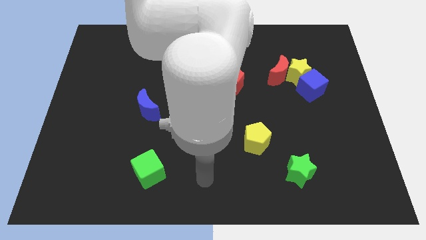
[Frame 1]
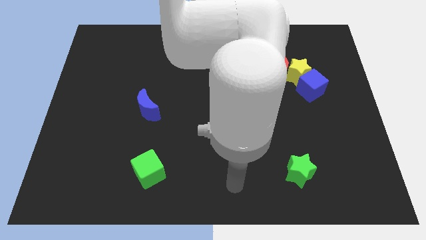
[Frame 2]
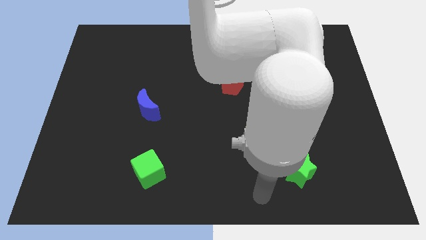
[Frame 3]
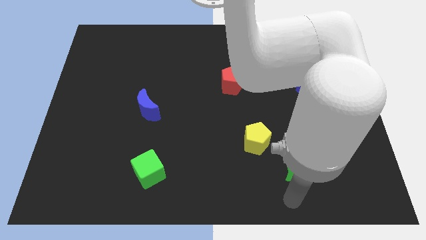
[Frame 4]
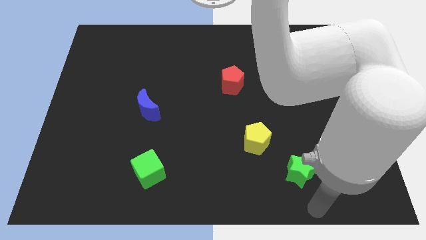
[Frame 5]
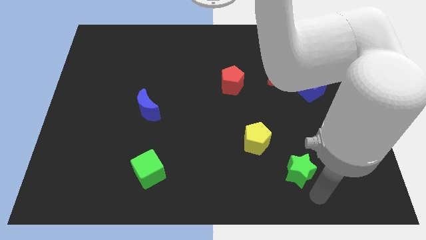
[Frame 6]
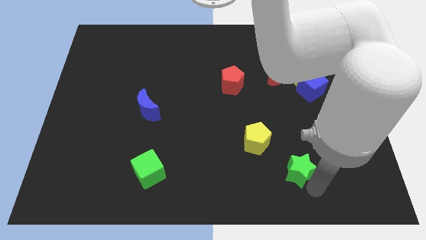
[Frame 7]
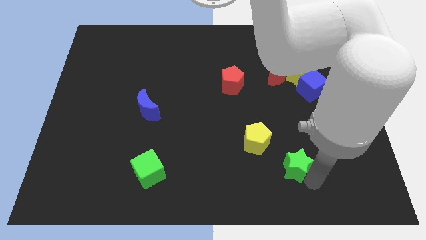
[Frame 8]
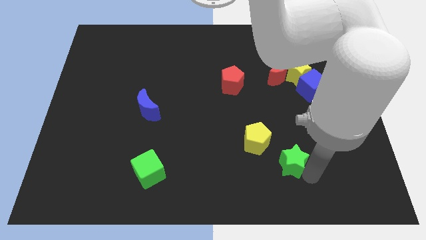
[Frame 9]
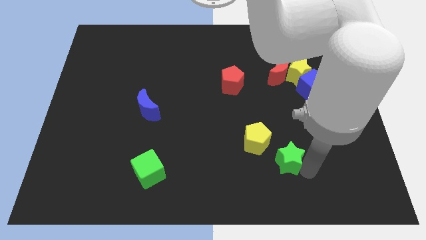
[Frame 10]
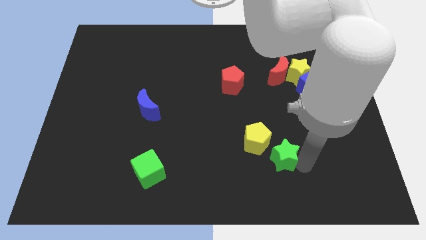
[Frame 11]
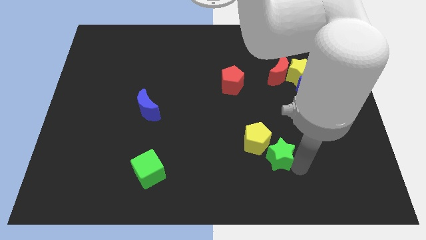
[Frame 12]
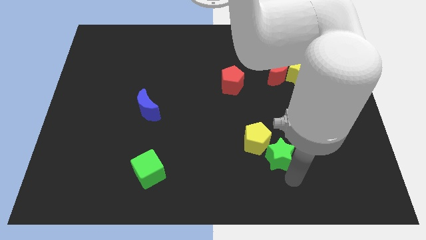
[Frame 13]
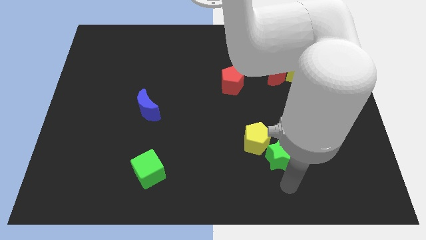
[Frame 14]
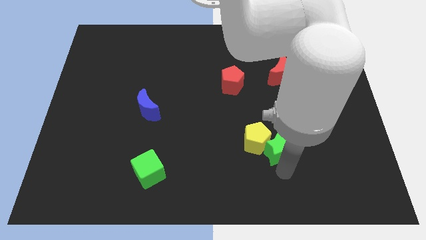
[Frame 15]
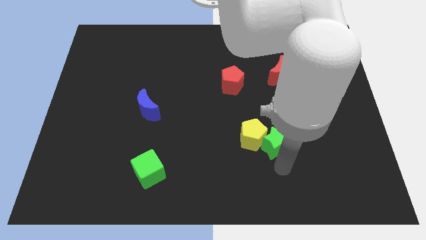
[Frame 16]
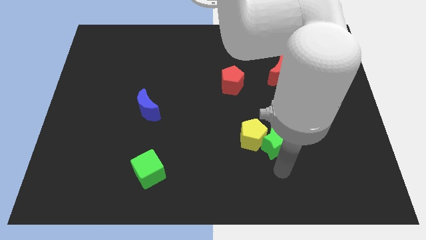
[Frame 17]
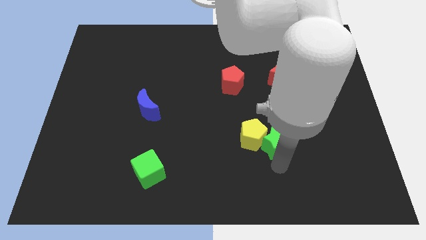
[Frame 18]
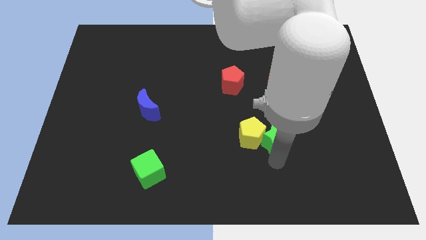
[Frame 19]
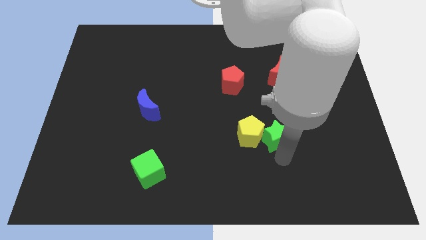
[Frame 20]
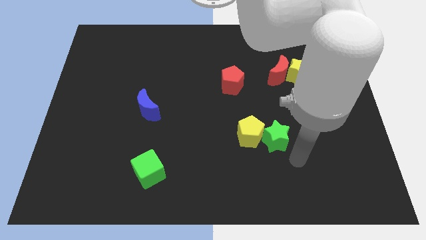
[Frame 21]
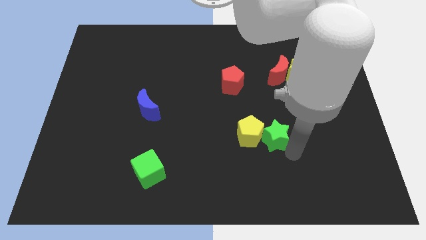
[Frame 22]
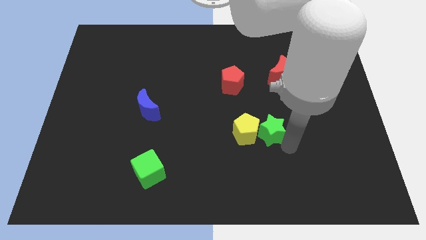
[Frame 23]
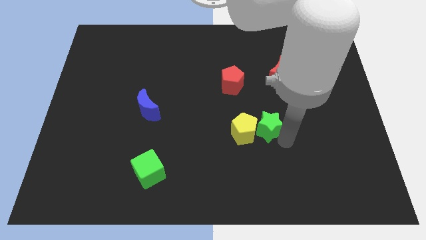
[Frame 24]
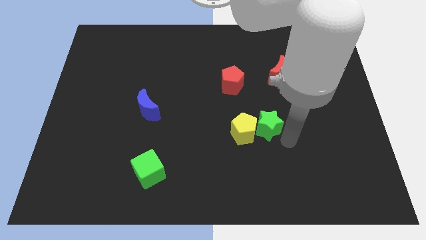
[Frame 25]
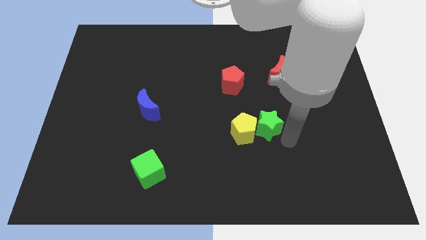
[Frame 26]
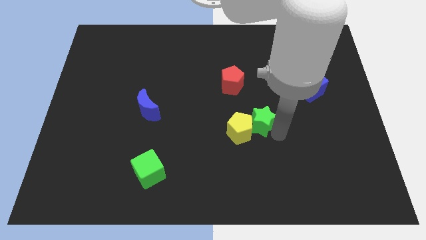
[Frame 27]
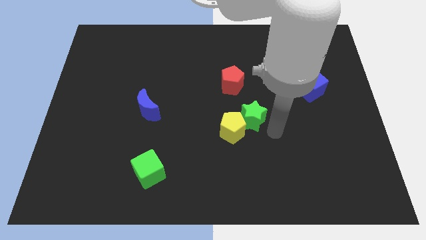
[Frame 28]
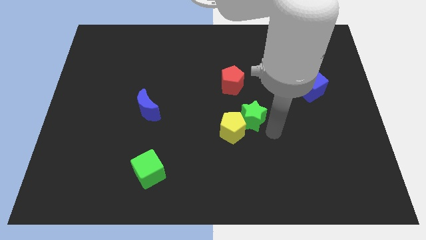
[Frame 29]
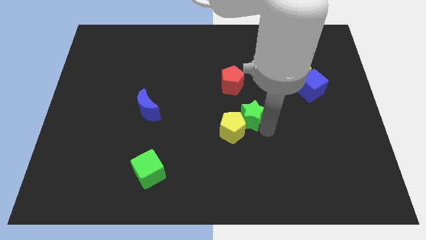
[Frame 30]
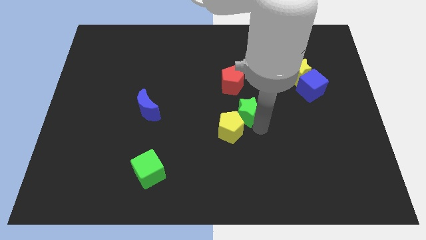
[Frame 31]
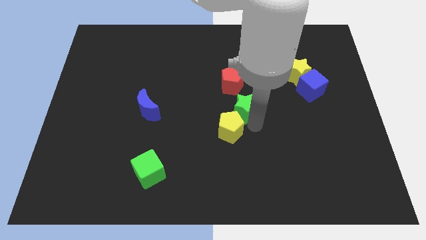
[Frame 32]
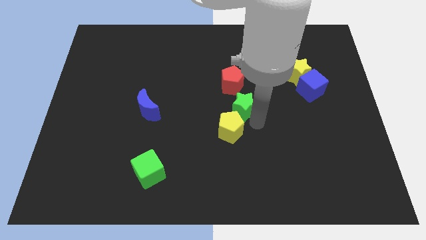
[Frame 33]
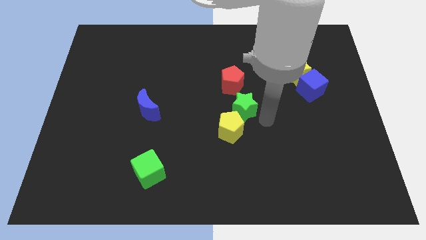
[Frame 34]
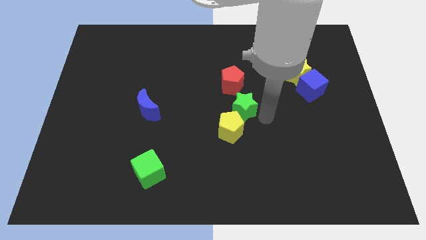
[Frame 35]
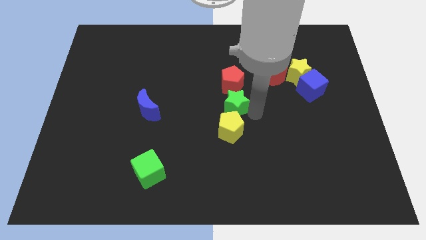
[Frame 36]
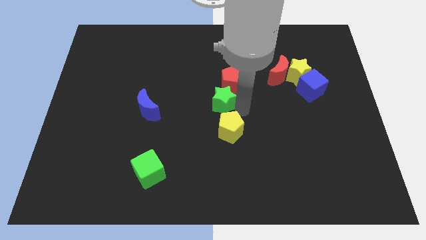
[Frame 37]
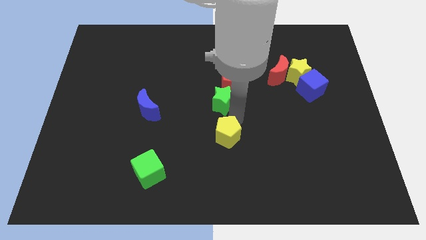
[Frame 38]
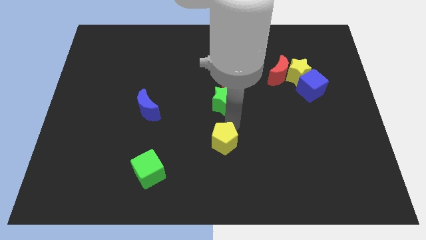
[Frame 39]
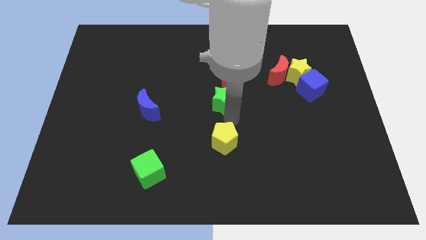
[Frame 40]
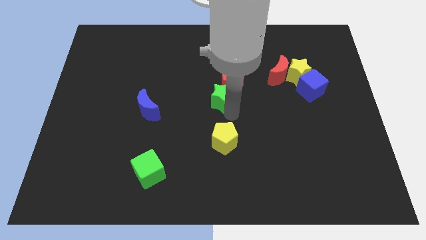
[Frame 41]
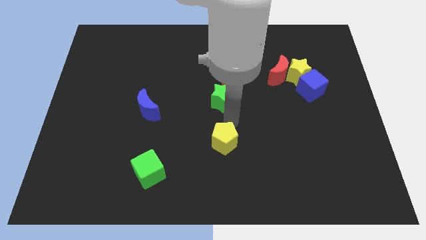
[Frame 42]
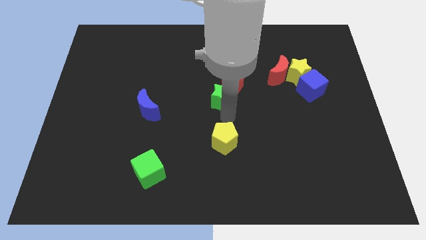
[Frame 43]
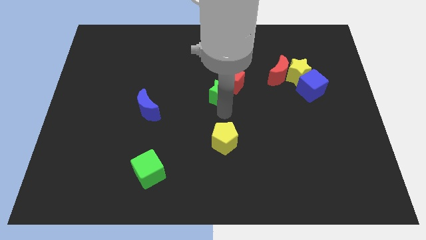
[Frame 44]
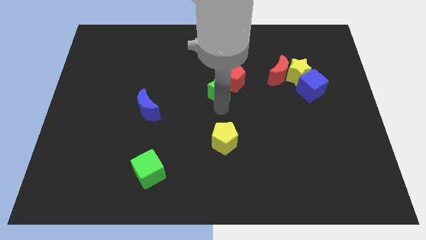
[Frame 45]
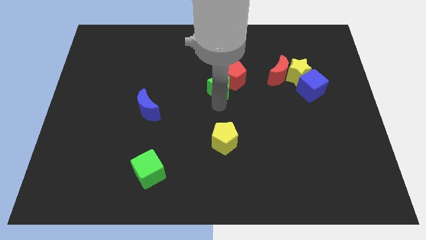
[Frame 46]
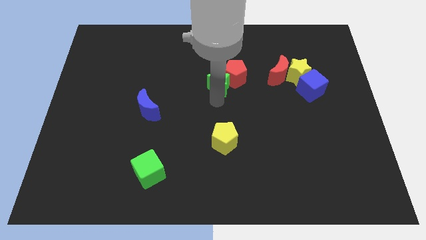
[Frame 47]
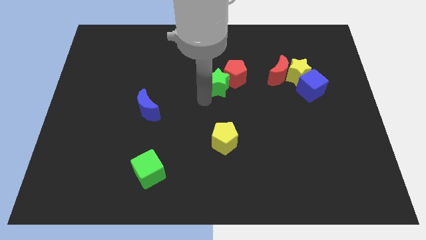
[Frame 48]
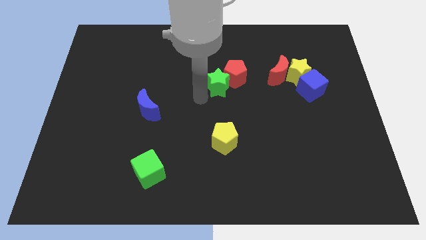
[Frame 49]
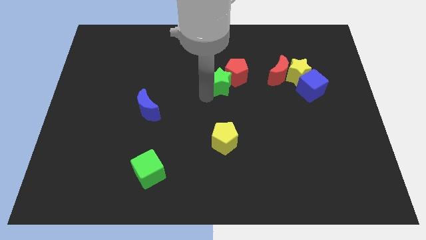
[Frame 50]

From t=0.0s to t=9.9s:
put the green star left of the red moon

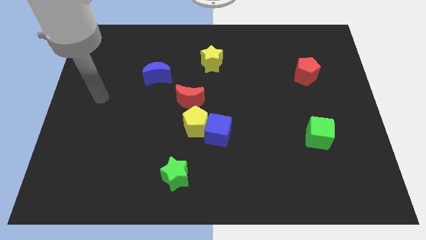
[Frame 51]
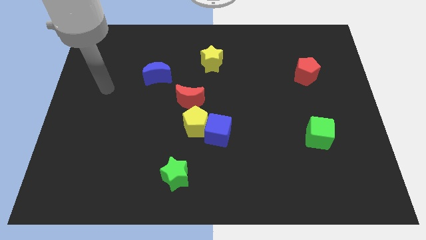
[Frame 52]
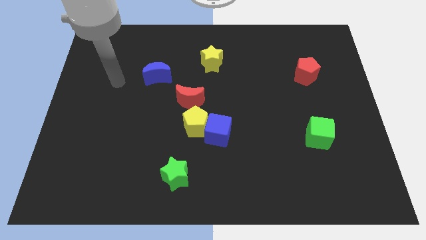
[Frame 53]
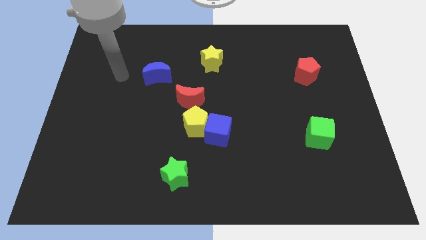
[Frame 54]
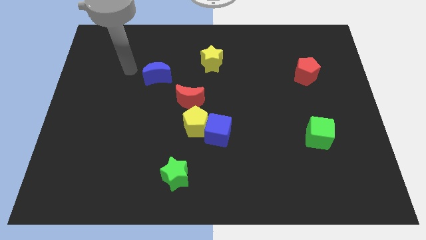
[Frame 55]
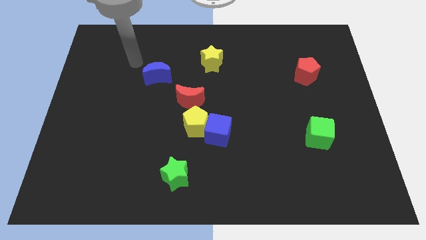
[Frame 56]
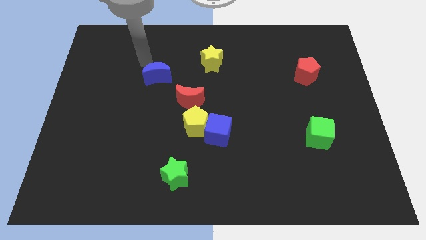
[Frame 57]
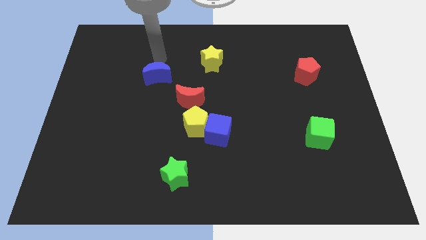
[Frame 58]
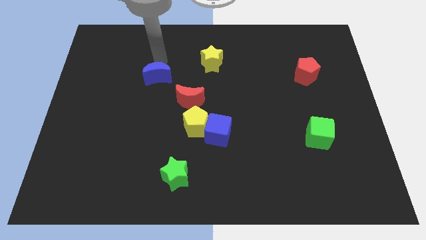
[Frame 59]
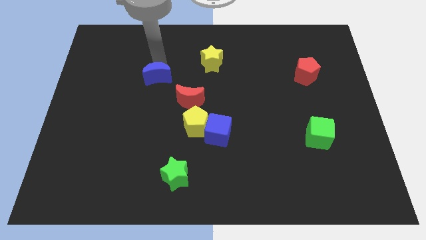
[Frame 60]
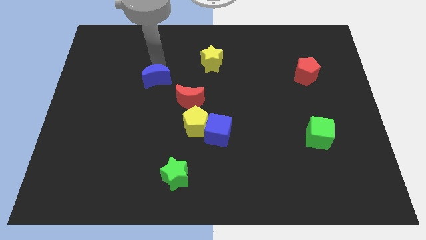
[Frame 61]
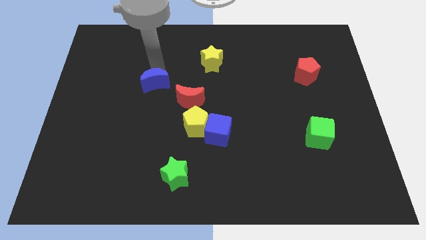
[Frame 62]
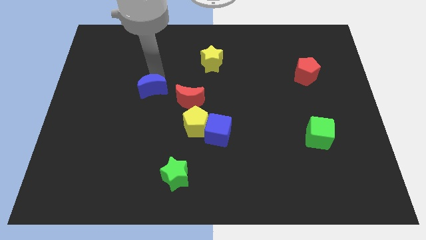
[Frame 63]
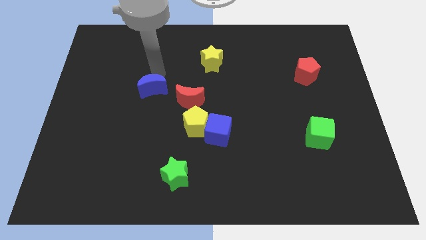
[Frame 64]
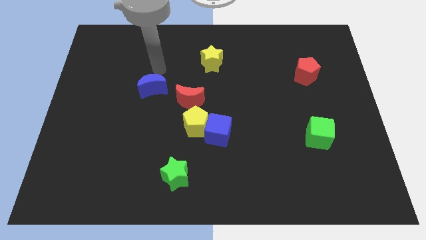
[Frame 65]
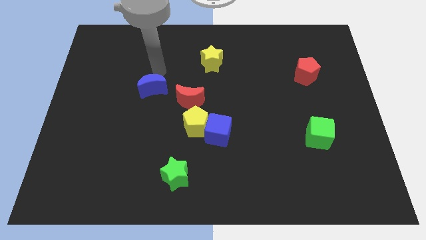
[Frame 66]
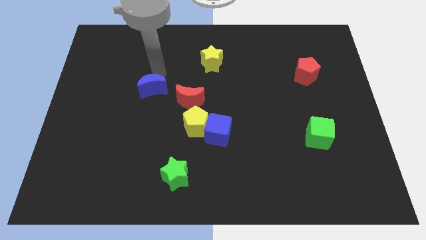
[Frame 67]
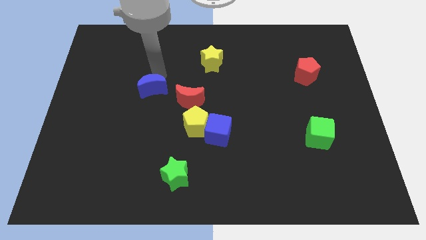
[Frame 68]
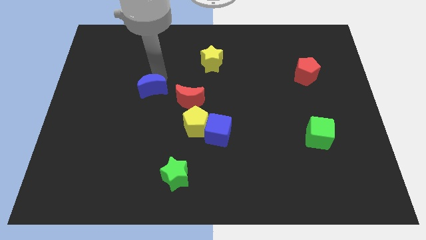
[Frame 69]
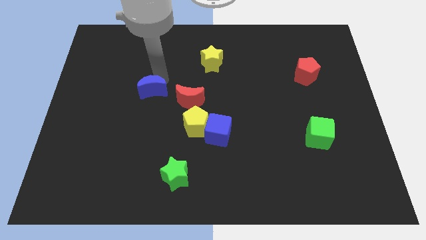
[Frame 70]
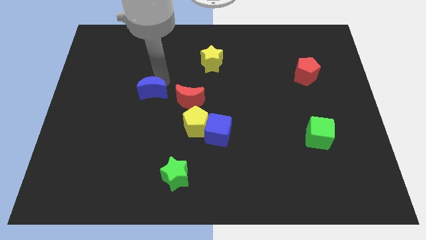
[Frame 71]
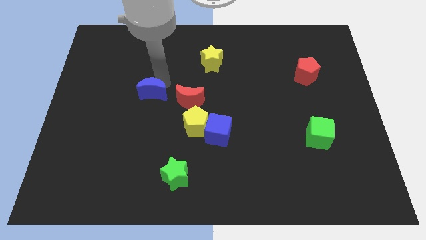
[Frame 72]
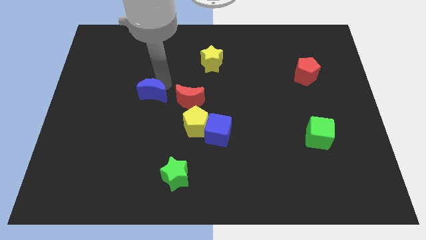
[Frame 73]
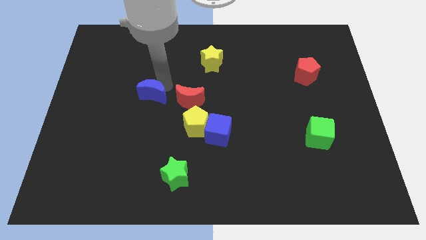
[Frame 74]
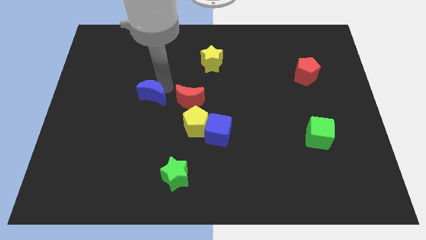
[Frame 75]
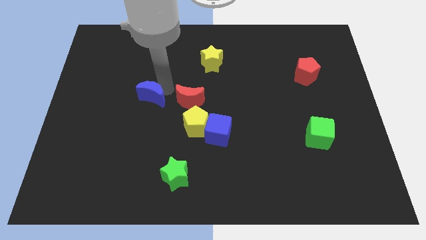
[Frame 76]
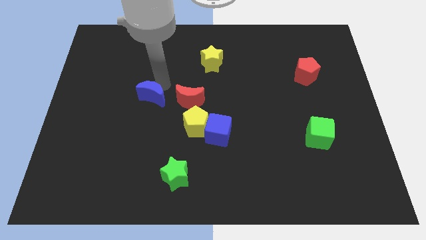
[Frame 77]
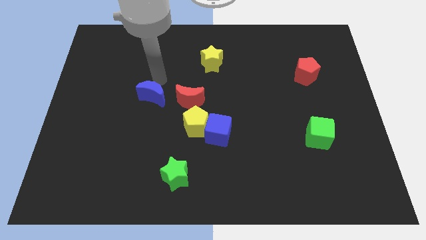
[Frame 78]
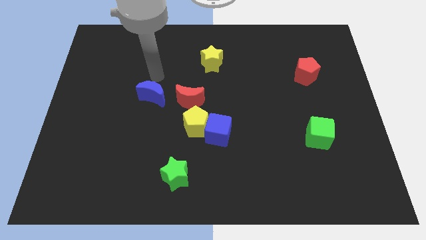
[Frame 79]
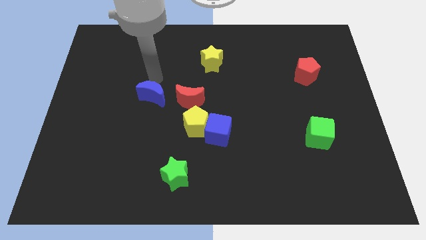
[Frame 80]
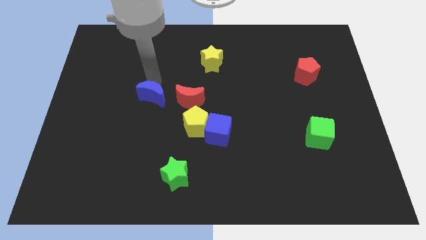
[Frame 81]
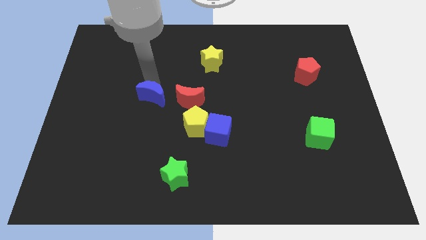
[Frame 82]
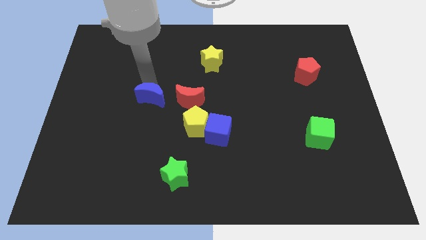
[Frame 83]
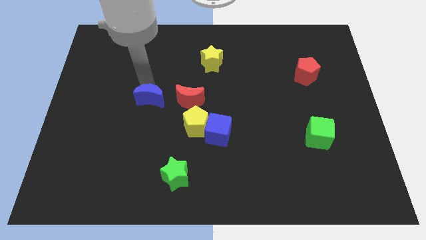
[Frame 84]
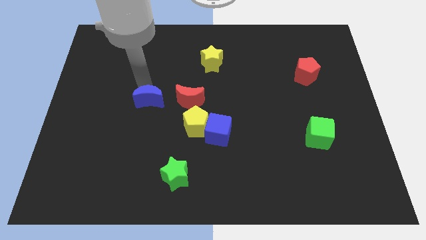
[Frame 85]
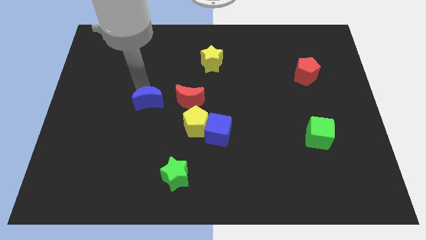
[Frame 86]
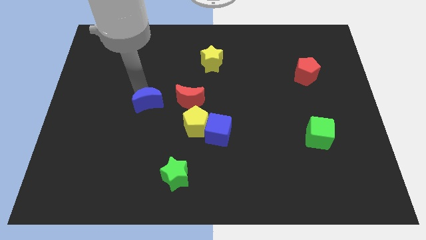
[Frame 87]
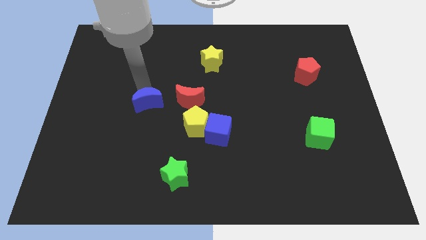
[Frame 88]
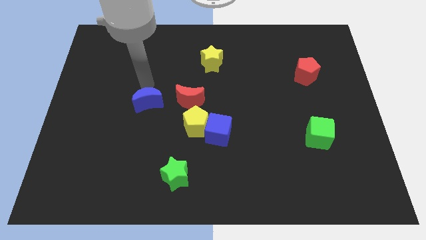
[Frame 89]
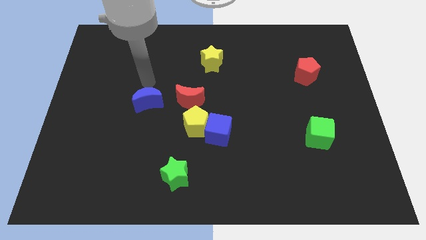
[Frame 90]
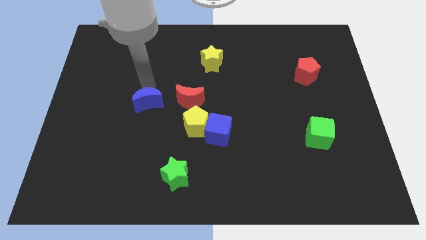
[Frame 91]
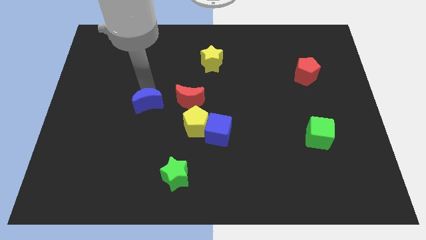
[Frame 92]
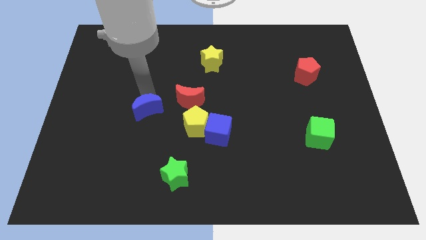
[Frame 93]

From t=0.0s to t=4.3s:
push the blue moon to the left of the yellow pentagon
